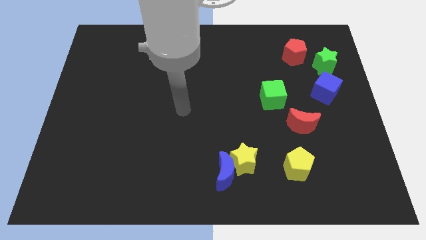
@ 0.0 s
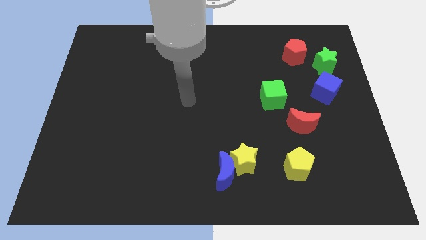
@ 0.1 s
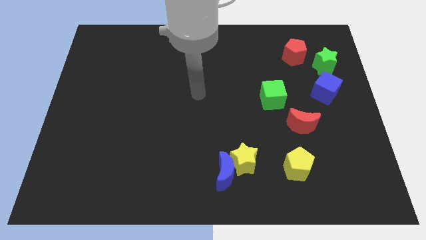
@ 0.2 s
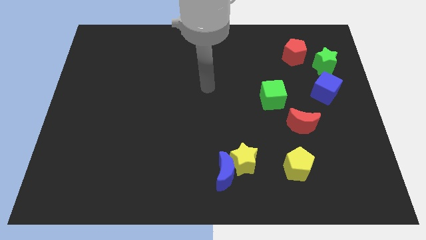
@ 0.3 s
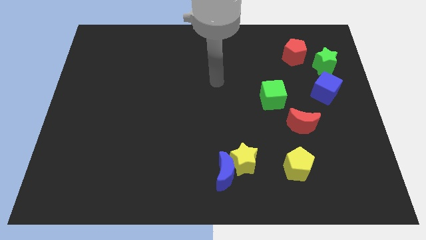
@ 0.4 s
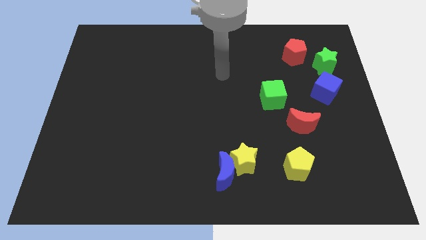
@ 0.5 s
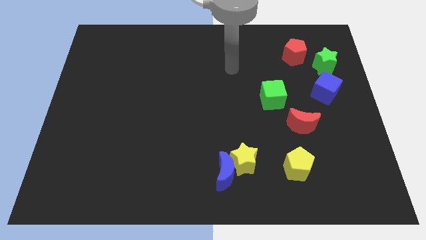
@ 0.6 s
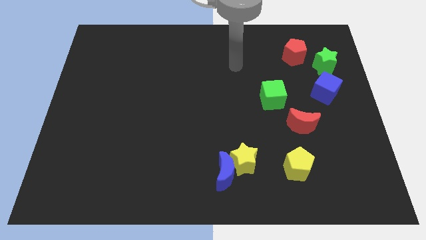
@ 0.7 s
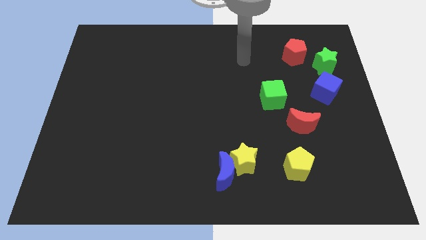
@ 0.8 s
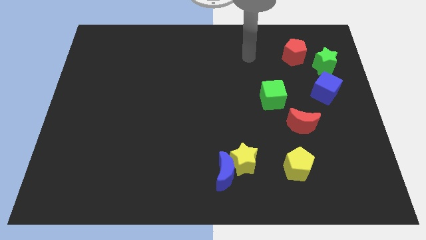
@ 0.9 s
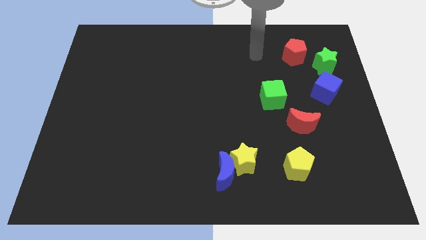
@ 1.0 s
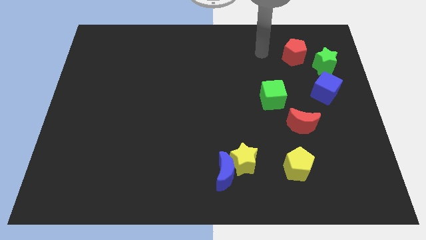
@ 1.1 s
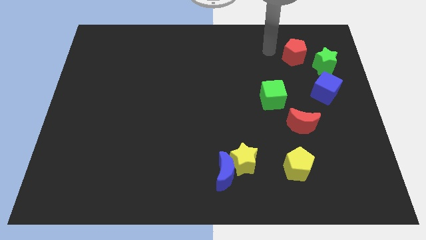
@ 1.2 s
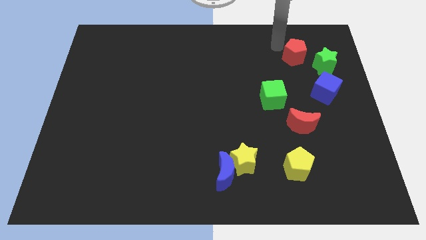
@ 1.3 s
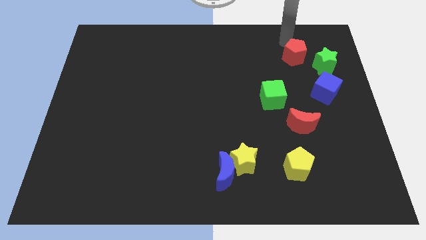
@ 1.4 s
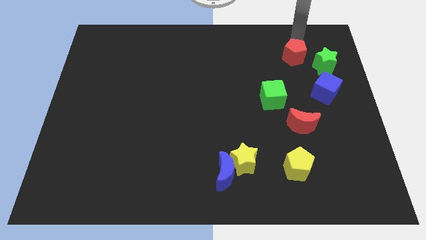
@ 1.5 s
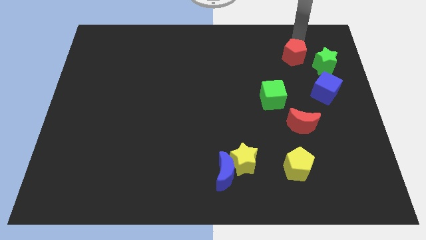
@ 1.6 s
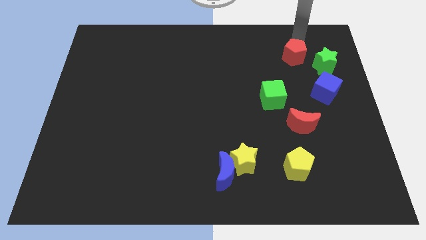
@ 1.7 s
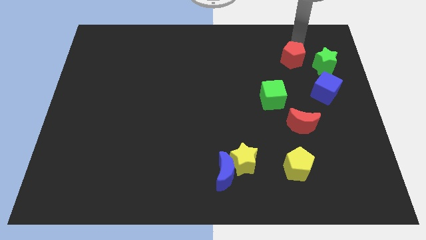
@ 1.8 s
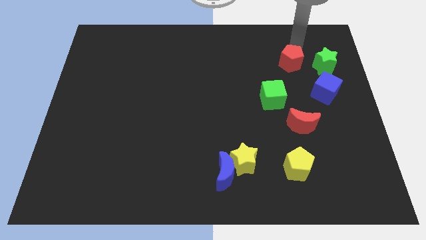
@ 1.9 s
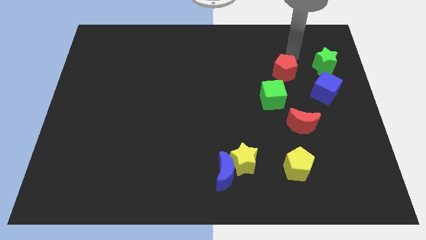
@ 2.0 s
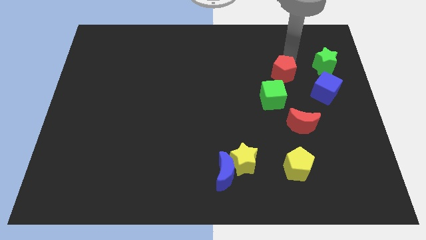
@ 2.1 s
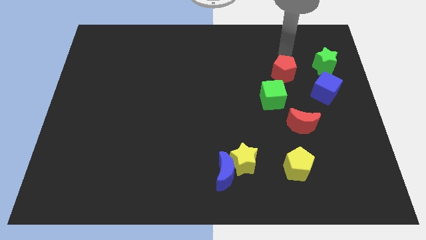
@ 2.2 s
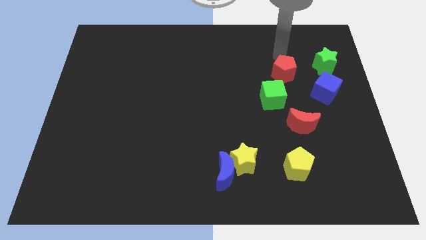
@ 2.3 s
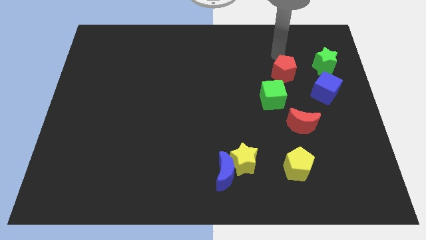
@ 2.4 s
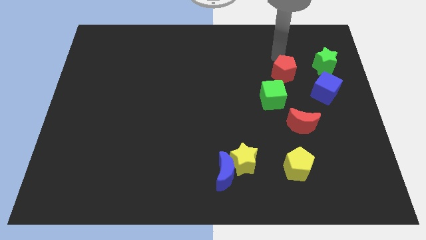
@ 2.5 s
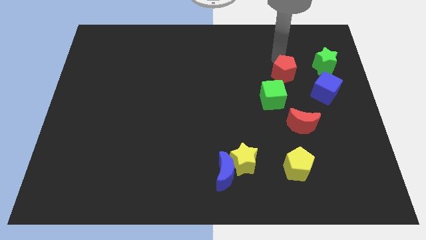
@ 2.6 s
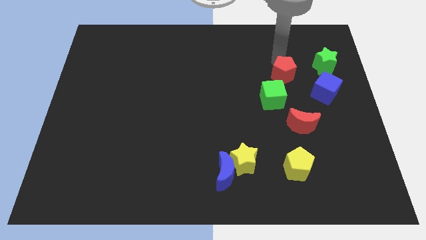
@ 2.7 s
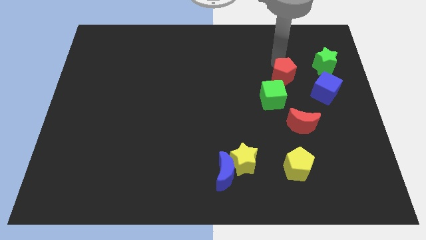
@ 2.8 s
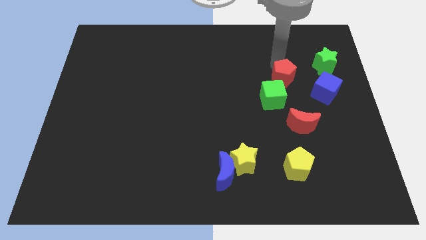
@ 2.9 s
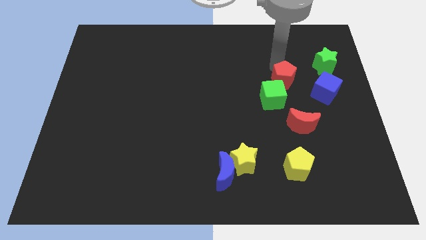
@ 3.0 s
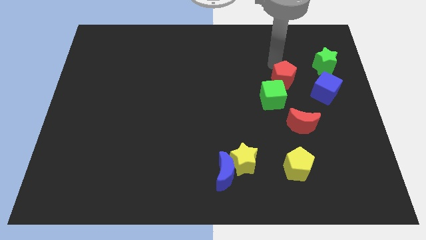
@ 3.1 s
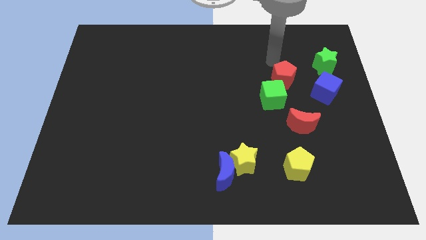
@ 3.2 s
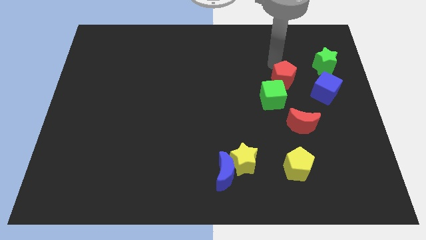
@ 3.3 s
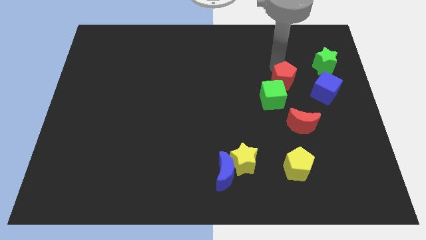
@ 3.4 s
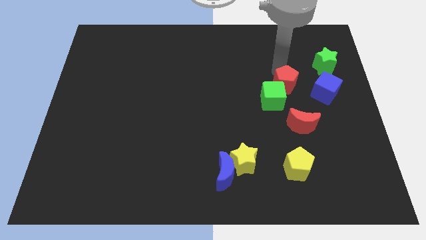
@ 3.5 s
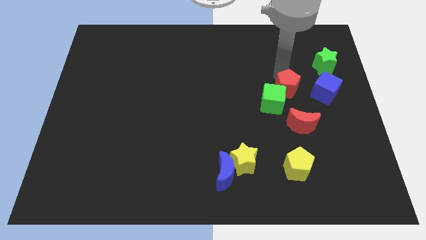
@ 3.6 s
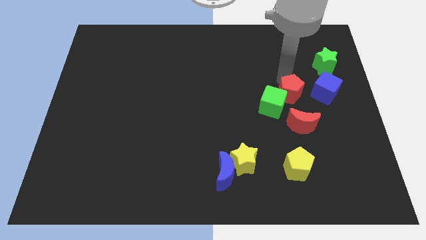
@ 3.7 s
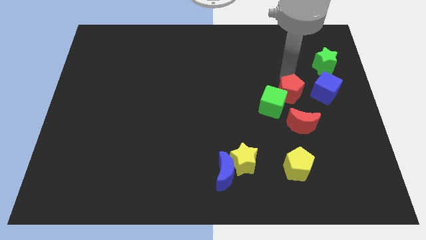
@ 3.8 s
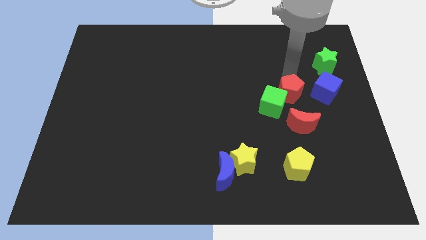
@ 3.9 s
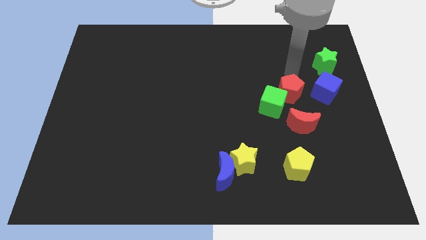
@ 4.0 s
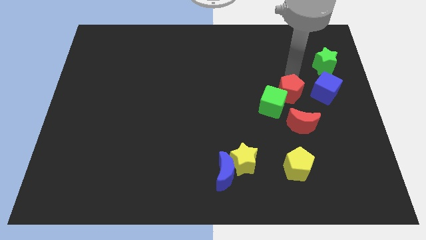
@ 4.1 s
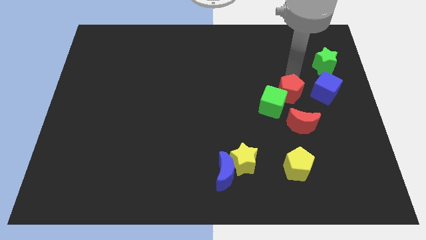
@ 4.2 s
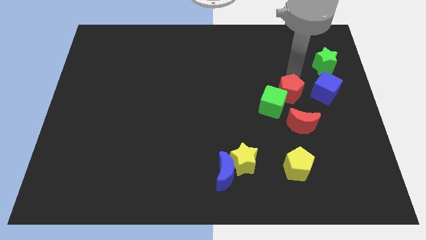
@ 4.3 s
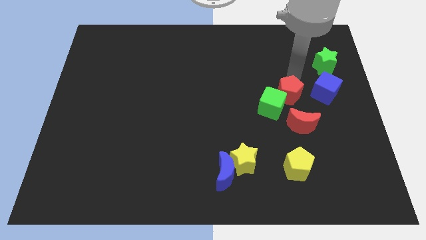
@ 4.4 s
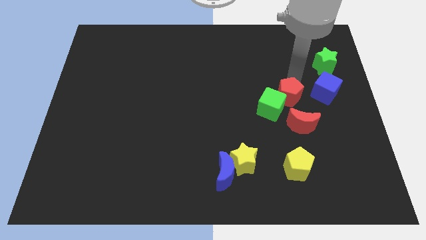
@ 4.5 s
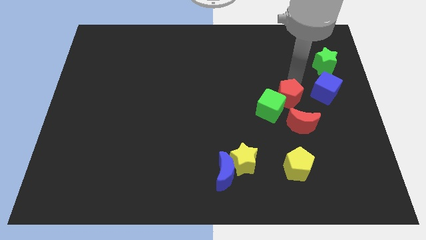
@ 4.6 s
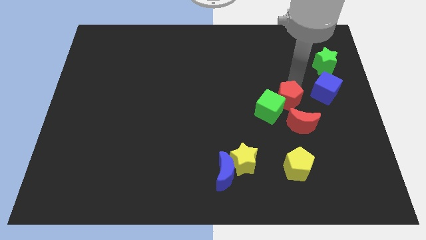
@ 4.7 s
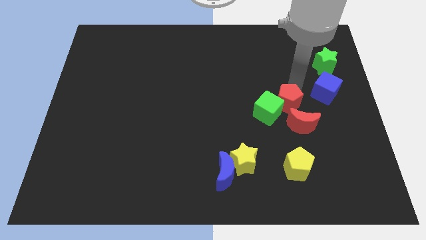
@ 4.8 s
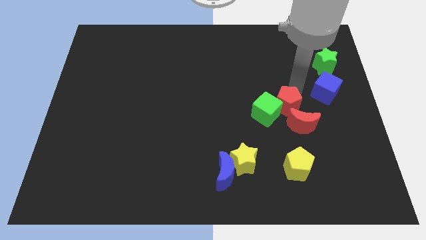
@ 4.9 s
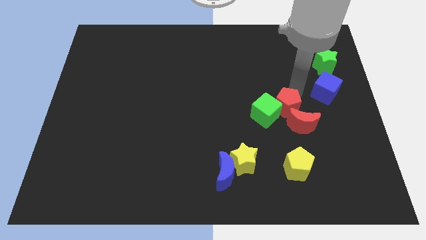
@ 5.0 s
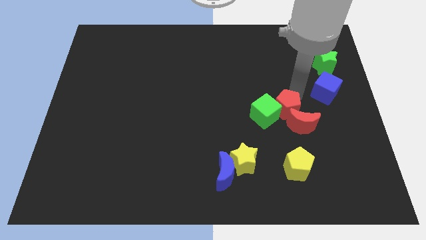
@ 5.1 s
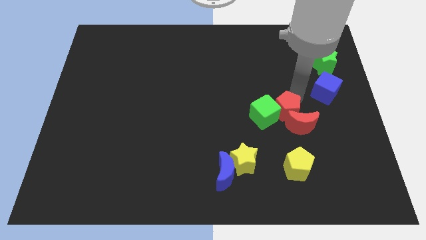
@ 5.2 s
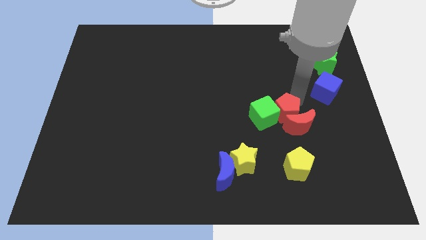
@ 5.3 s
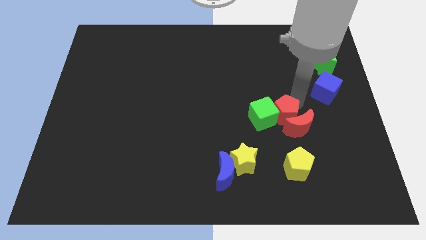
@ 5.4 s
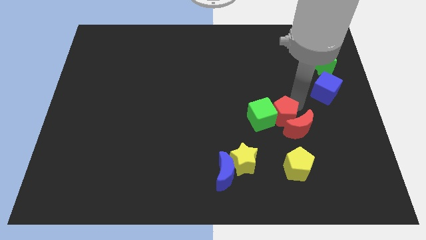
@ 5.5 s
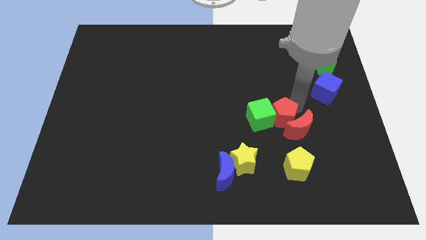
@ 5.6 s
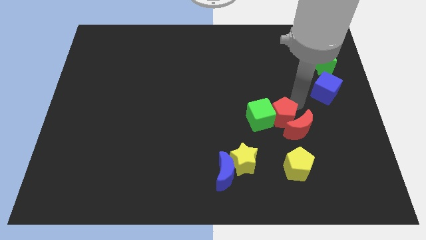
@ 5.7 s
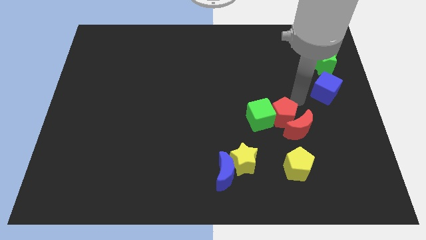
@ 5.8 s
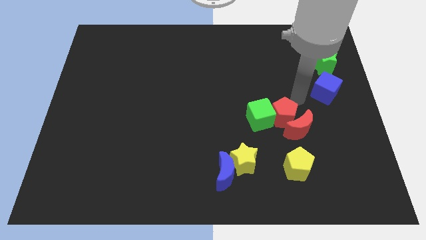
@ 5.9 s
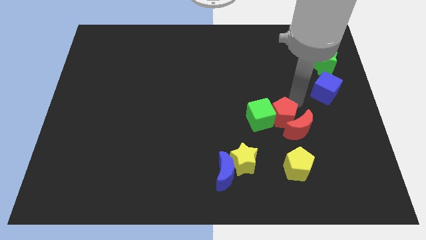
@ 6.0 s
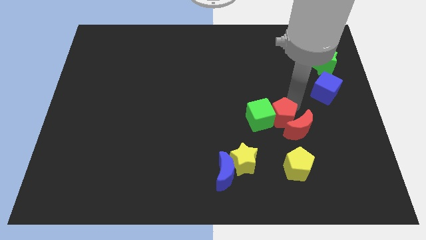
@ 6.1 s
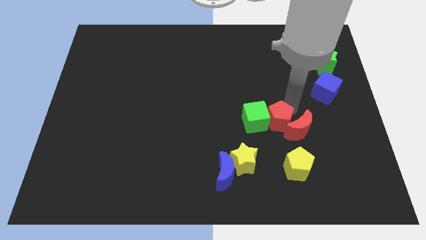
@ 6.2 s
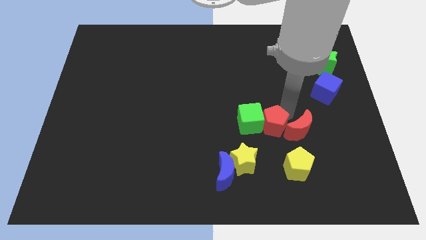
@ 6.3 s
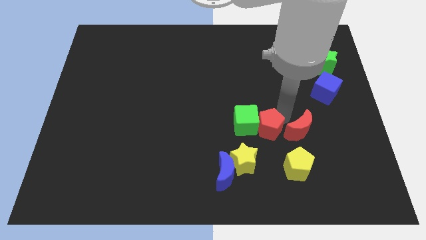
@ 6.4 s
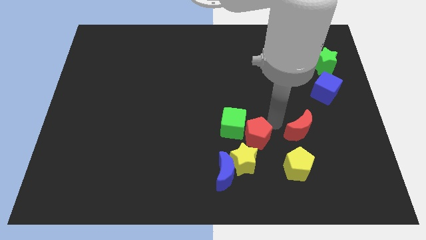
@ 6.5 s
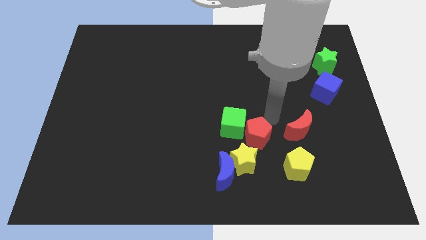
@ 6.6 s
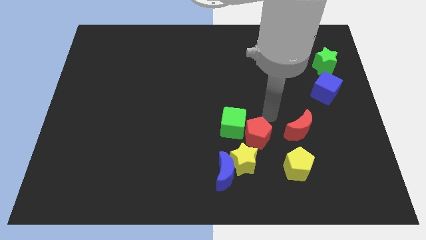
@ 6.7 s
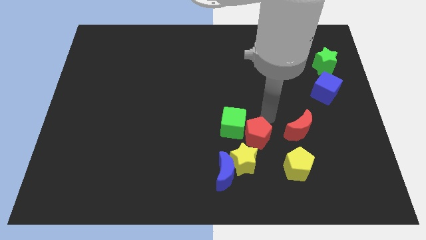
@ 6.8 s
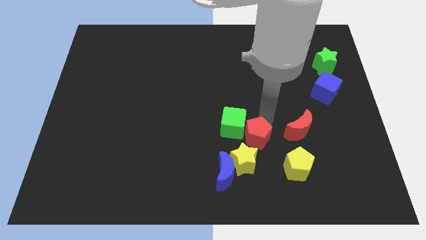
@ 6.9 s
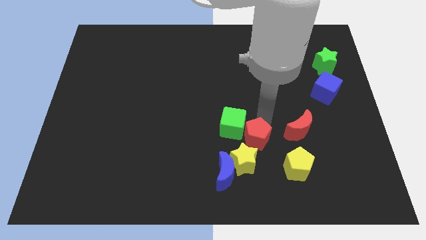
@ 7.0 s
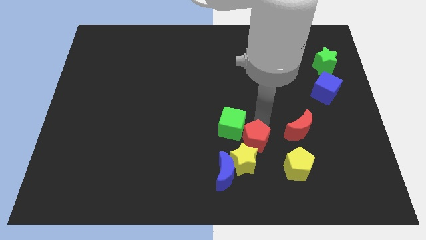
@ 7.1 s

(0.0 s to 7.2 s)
put the red pentagon next to the yellow star
